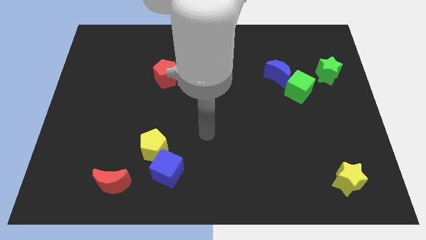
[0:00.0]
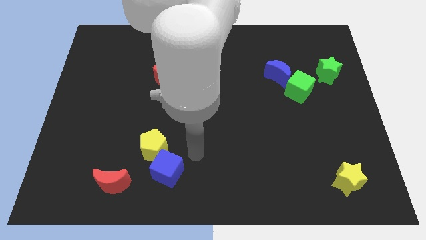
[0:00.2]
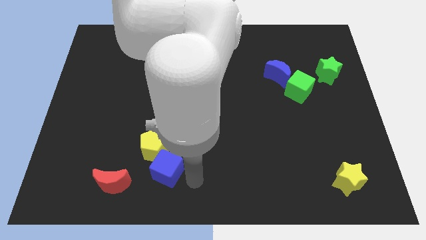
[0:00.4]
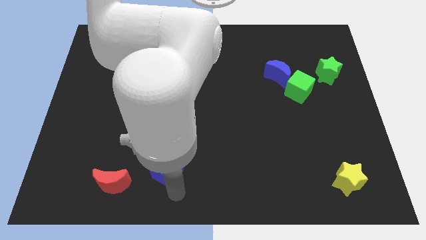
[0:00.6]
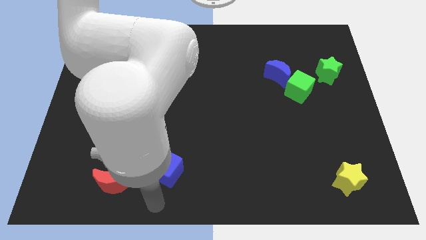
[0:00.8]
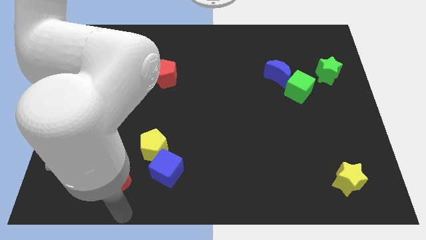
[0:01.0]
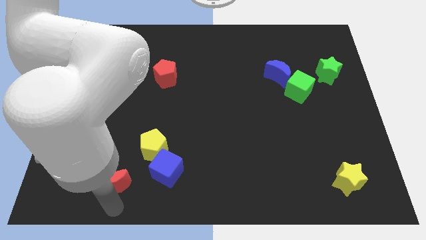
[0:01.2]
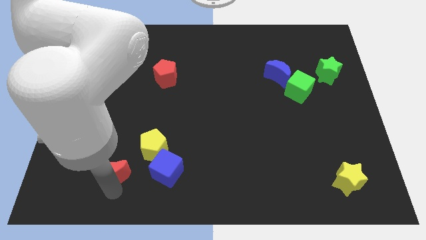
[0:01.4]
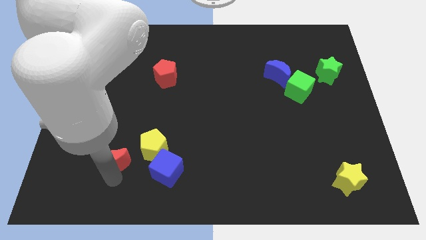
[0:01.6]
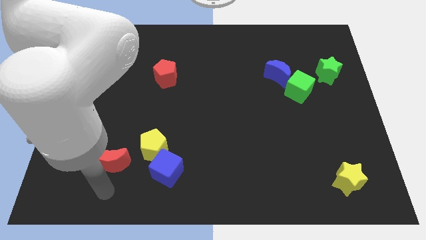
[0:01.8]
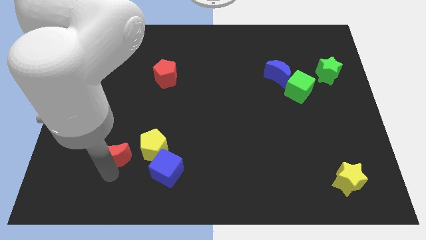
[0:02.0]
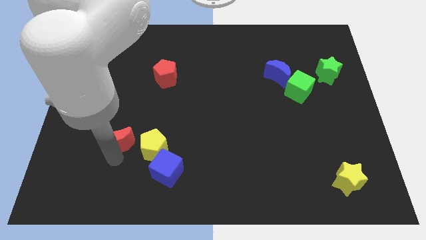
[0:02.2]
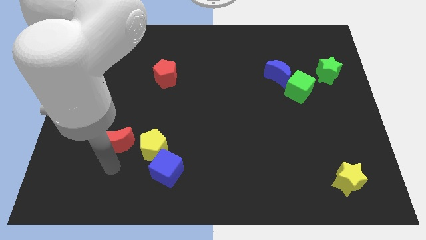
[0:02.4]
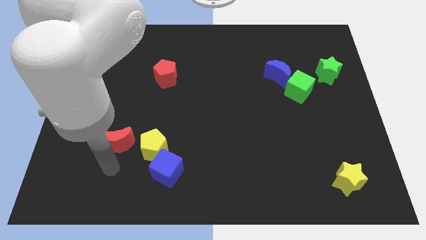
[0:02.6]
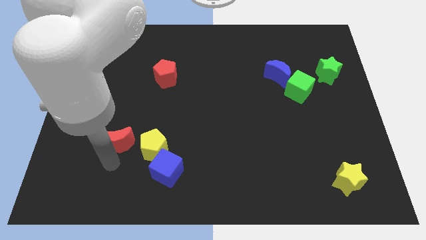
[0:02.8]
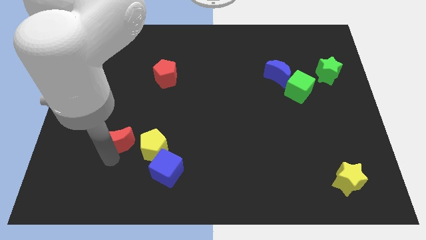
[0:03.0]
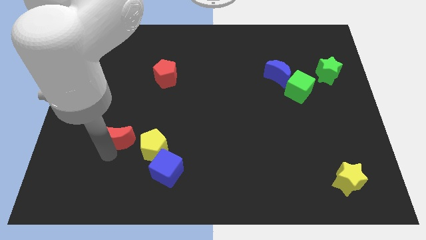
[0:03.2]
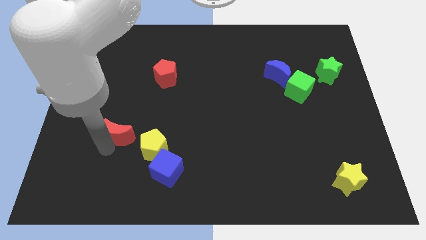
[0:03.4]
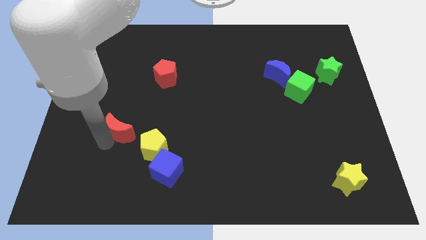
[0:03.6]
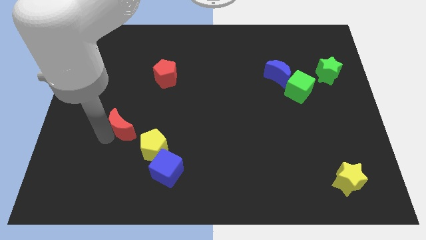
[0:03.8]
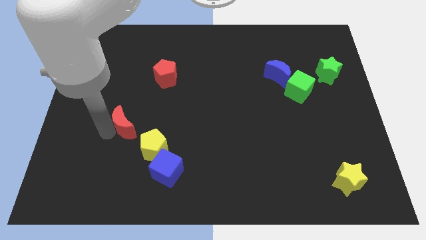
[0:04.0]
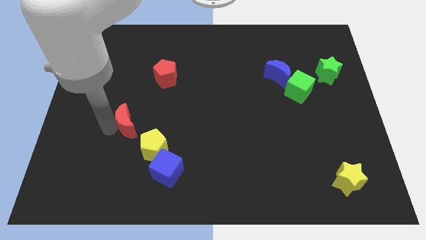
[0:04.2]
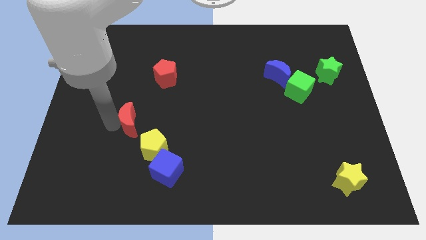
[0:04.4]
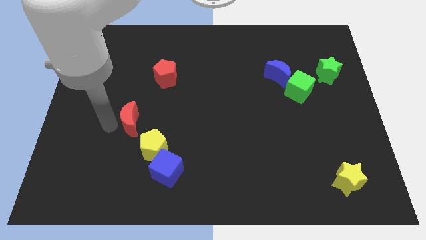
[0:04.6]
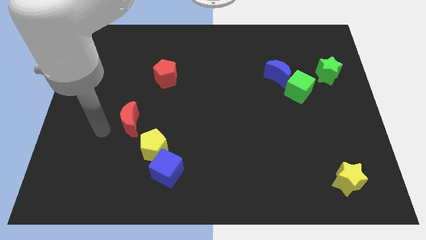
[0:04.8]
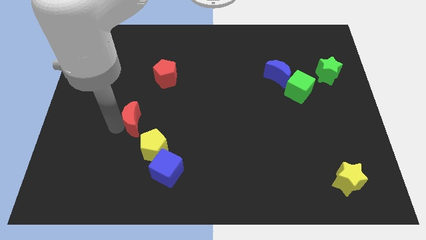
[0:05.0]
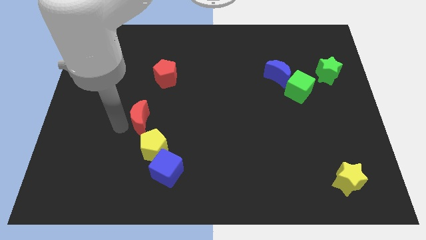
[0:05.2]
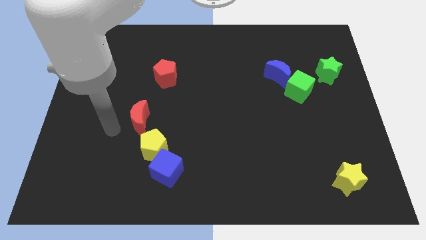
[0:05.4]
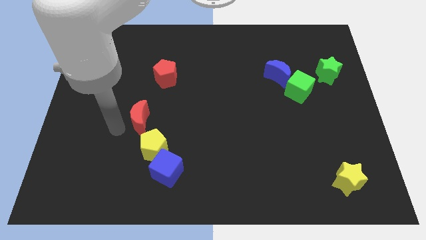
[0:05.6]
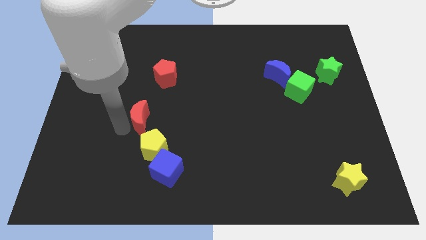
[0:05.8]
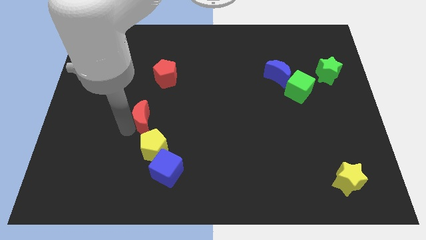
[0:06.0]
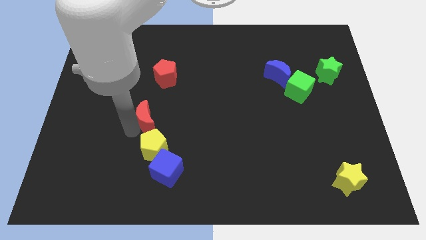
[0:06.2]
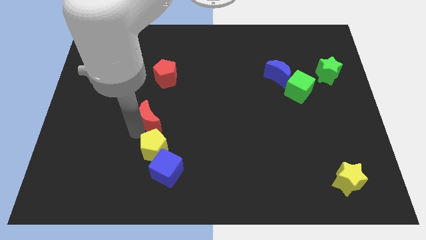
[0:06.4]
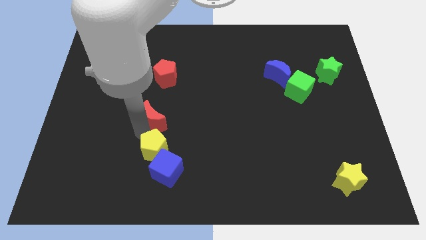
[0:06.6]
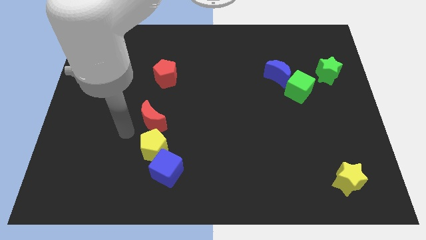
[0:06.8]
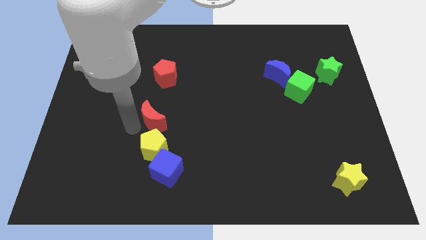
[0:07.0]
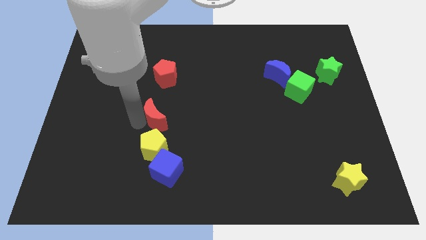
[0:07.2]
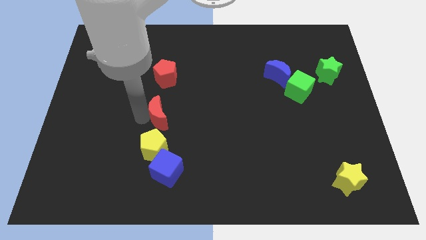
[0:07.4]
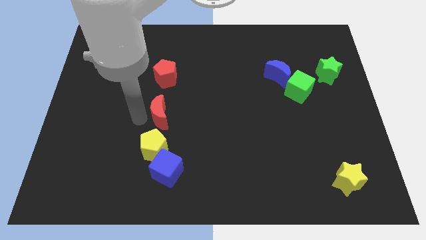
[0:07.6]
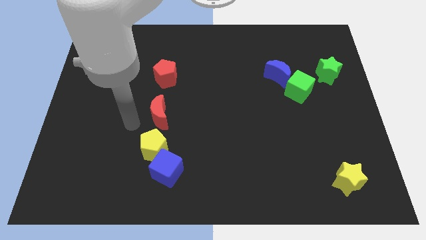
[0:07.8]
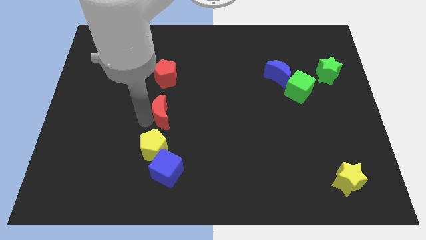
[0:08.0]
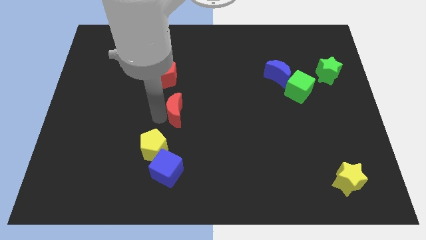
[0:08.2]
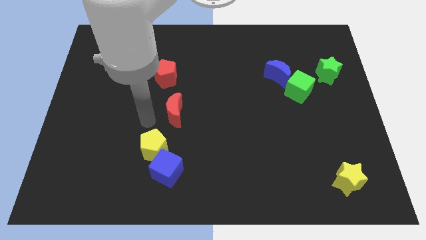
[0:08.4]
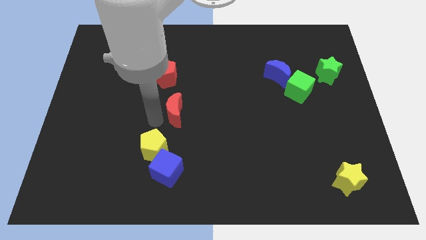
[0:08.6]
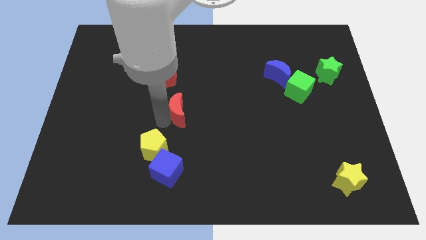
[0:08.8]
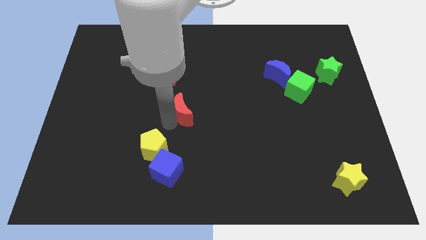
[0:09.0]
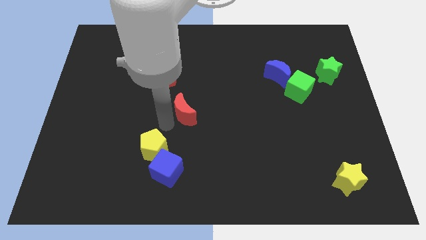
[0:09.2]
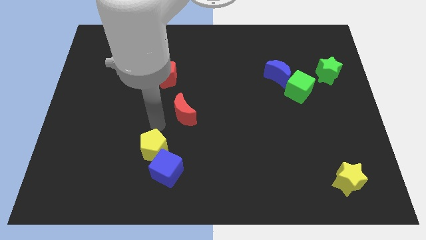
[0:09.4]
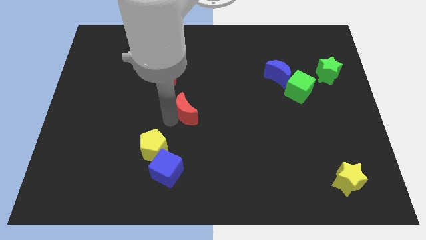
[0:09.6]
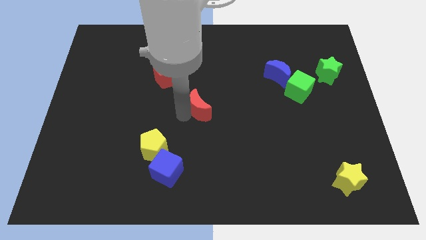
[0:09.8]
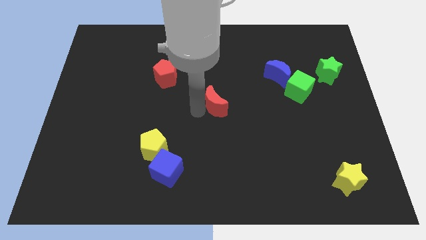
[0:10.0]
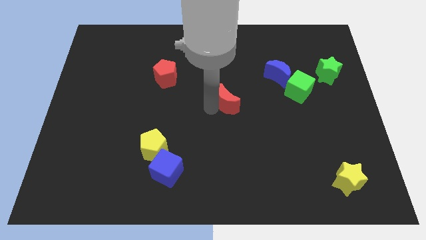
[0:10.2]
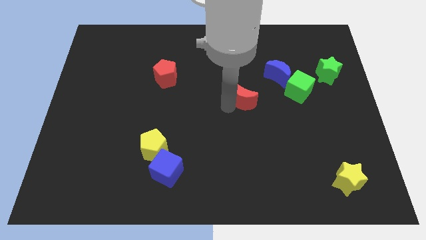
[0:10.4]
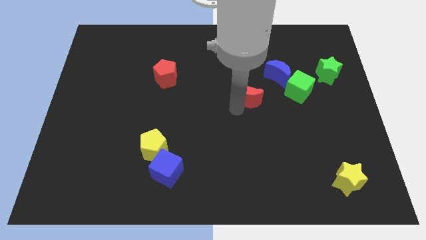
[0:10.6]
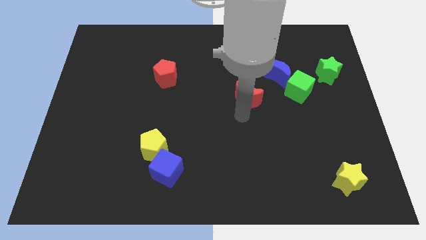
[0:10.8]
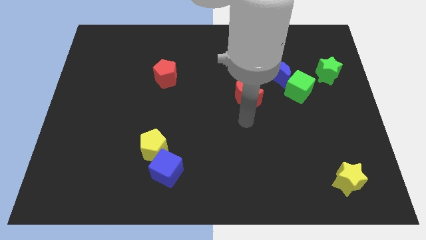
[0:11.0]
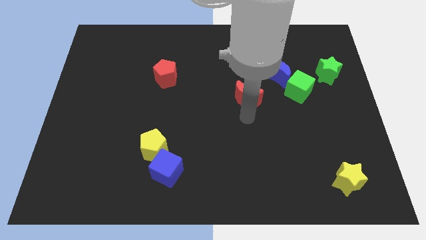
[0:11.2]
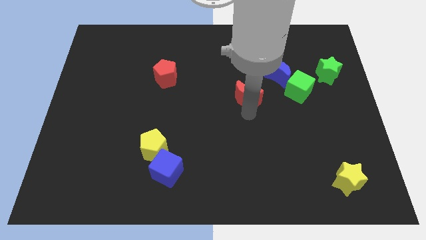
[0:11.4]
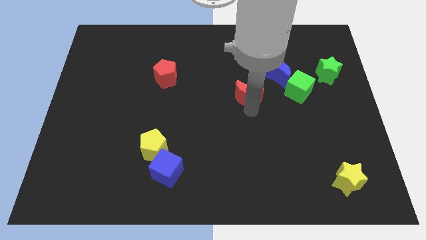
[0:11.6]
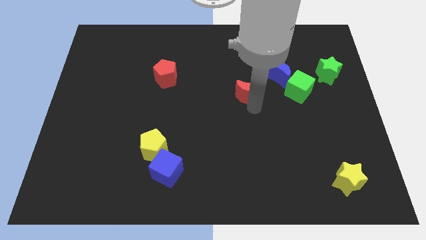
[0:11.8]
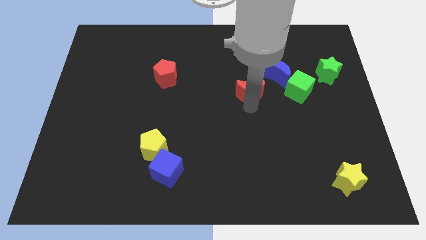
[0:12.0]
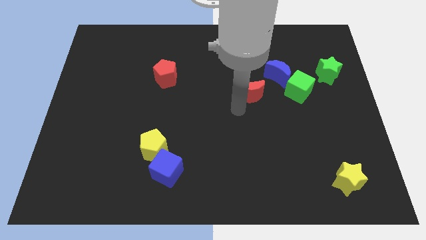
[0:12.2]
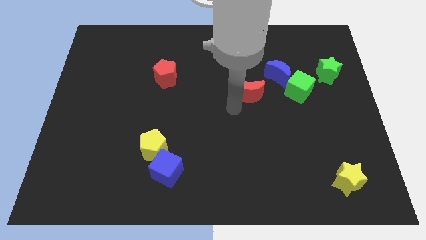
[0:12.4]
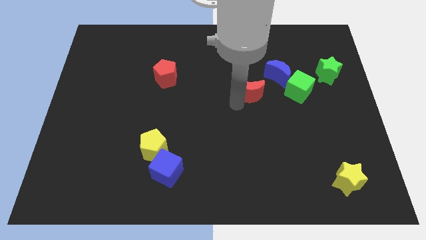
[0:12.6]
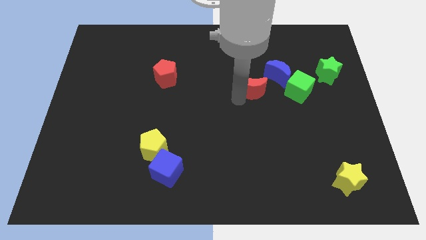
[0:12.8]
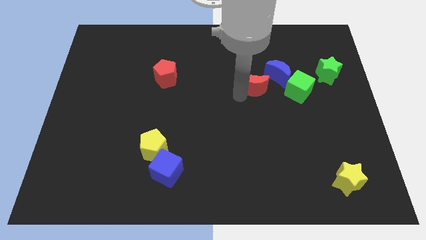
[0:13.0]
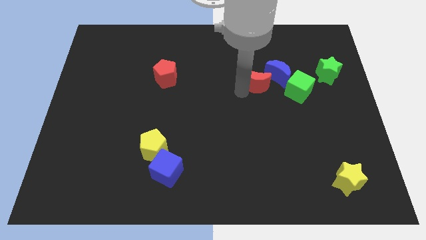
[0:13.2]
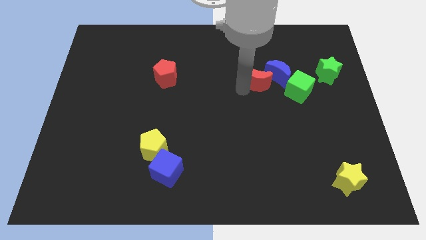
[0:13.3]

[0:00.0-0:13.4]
move the red moon towards the blue moon
